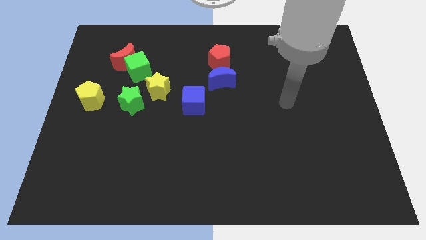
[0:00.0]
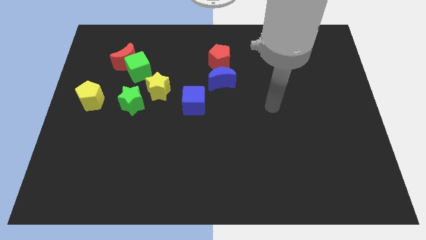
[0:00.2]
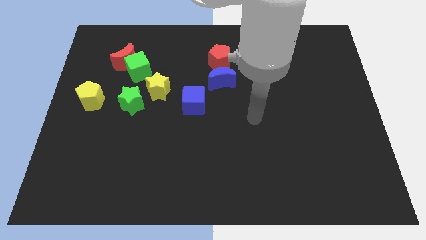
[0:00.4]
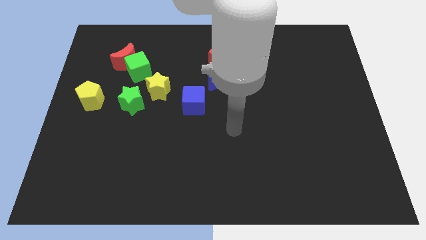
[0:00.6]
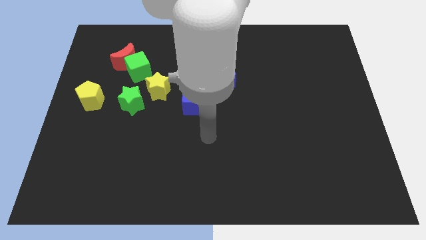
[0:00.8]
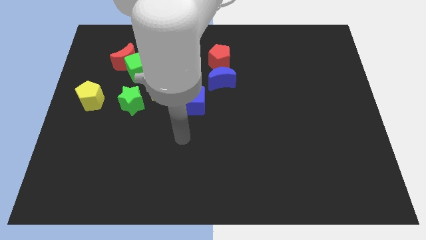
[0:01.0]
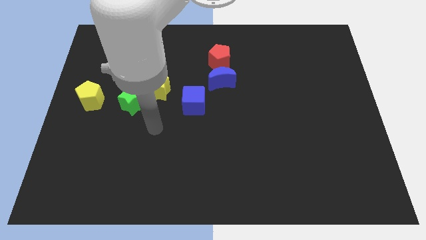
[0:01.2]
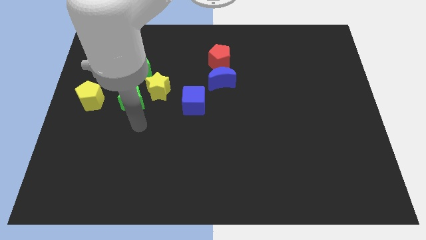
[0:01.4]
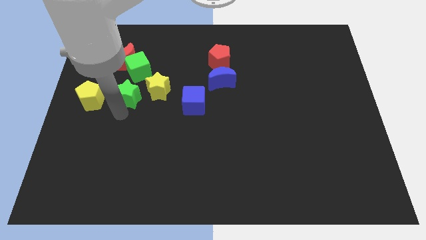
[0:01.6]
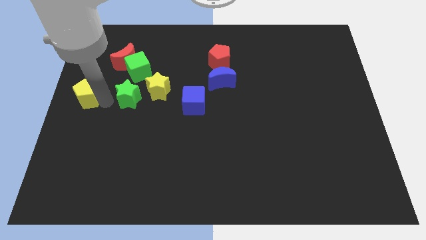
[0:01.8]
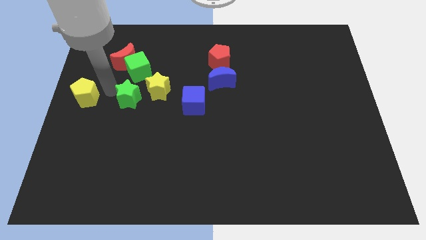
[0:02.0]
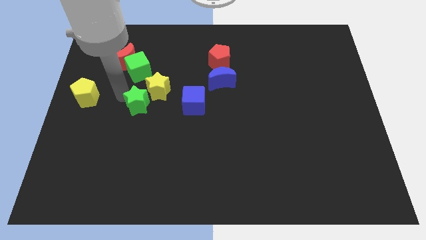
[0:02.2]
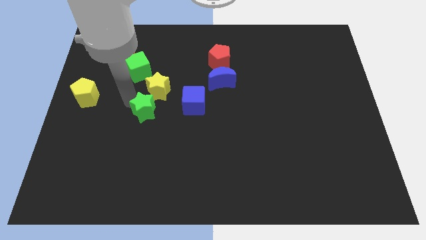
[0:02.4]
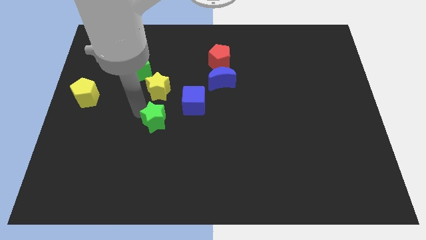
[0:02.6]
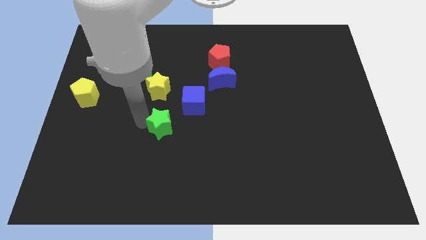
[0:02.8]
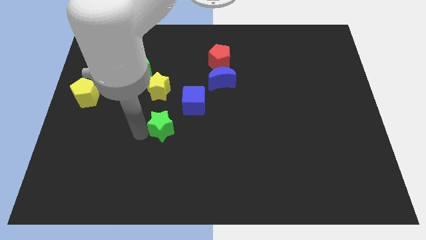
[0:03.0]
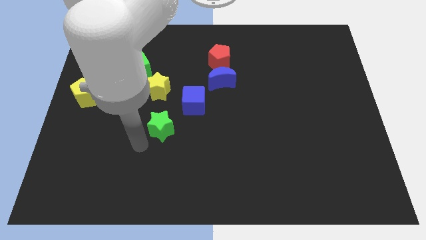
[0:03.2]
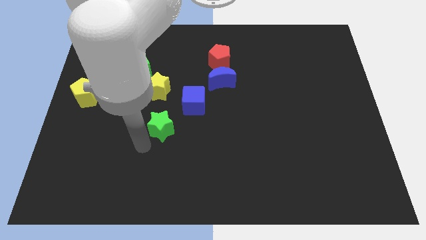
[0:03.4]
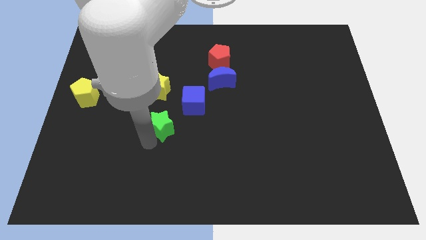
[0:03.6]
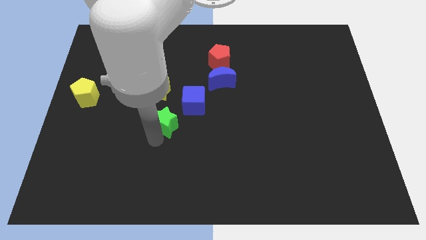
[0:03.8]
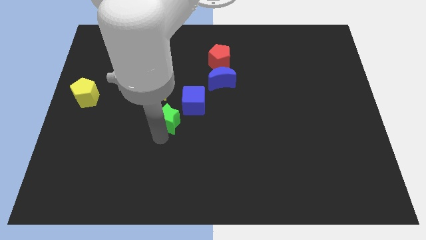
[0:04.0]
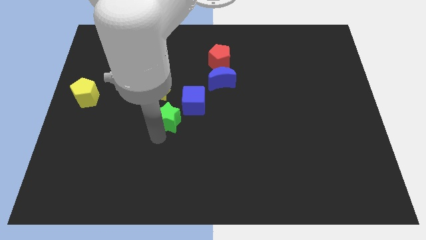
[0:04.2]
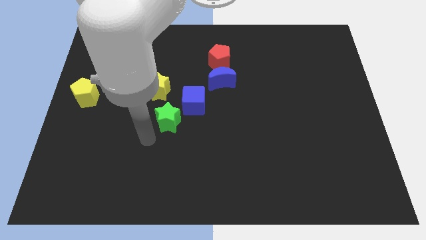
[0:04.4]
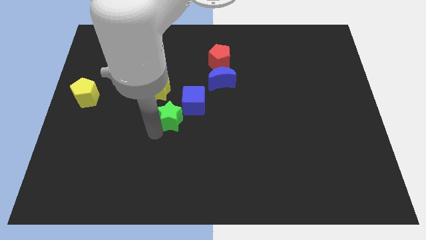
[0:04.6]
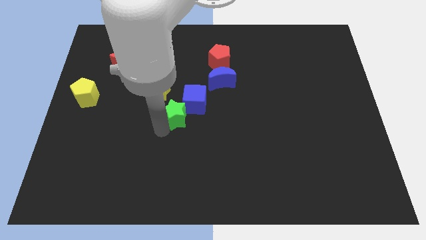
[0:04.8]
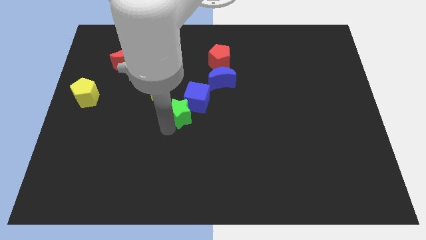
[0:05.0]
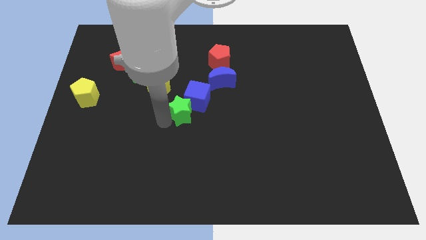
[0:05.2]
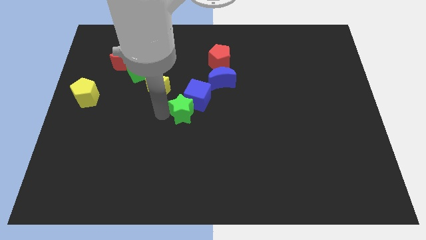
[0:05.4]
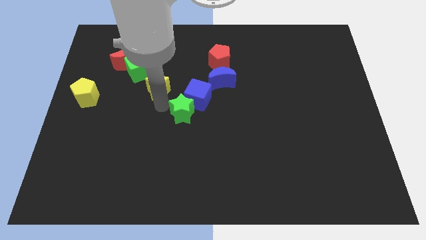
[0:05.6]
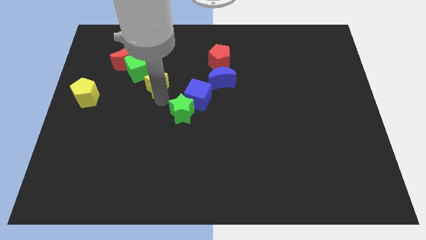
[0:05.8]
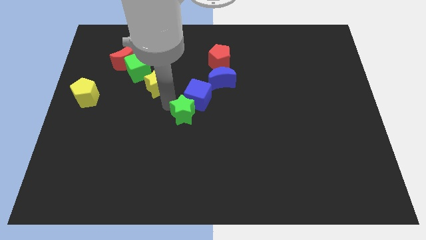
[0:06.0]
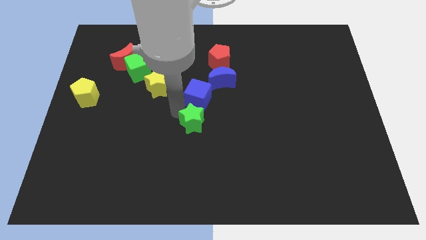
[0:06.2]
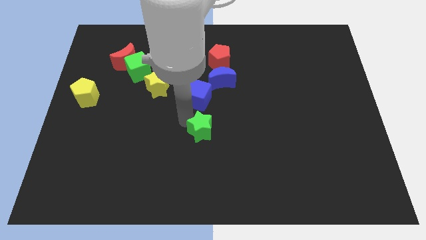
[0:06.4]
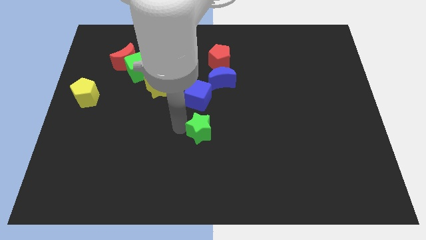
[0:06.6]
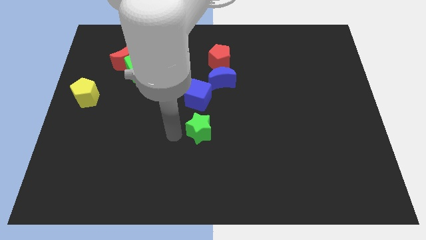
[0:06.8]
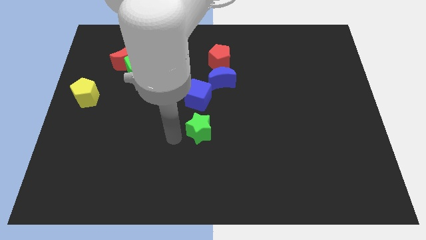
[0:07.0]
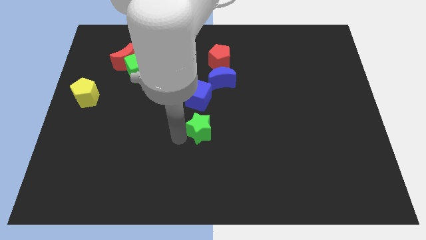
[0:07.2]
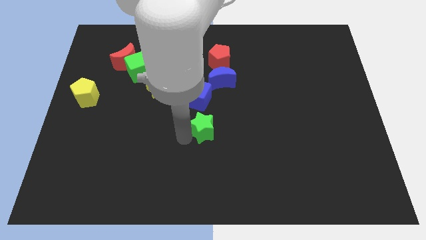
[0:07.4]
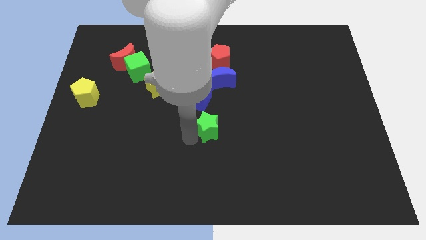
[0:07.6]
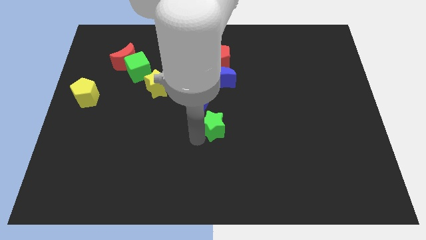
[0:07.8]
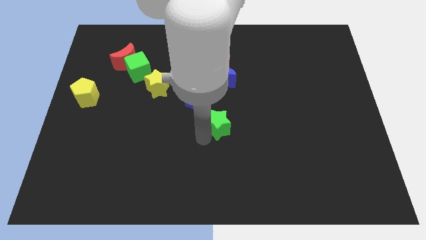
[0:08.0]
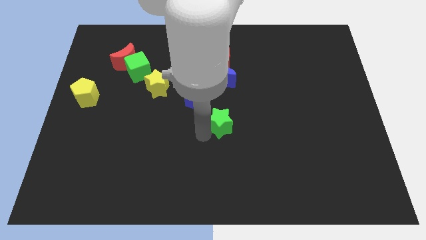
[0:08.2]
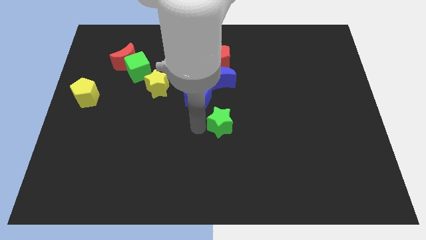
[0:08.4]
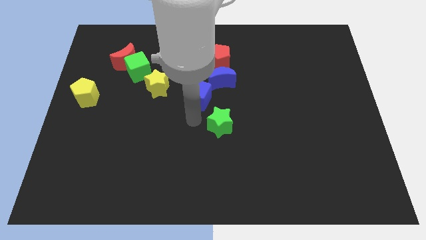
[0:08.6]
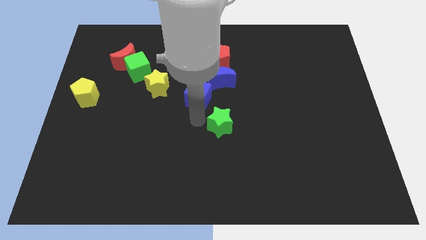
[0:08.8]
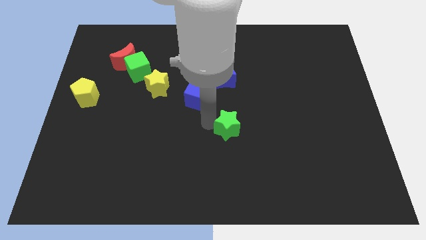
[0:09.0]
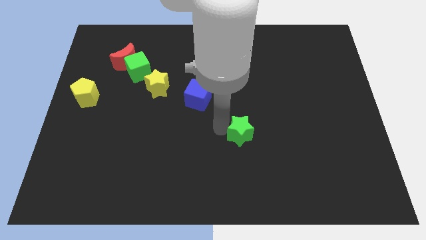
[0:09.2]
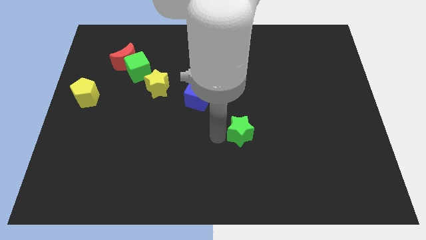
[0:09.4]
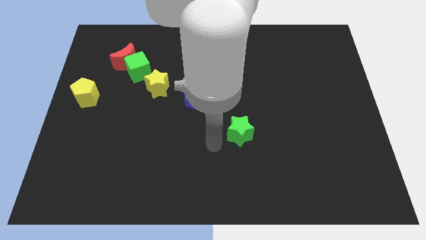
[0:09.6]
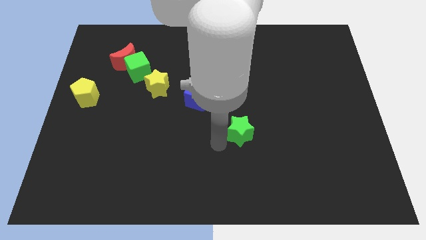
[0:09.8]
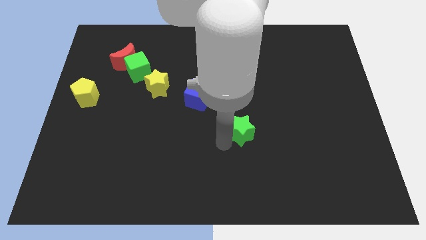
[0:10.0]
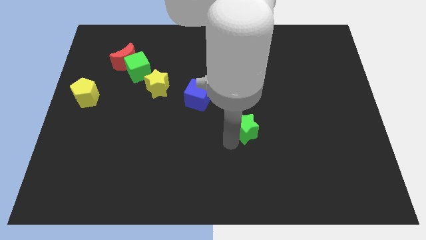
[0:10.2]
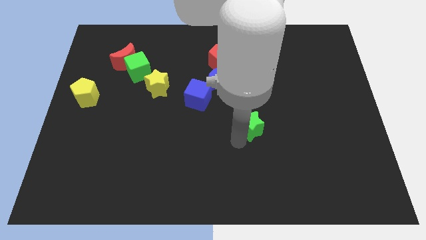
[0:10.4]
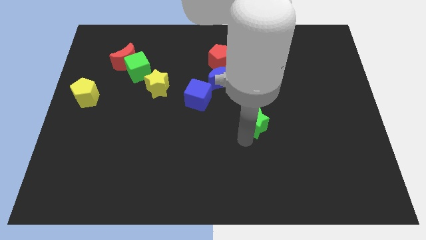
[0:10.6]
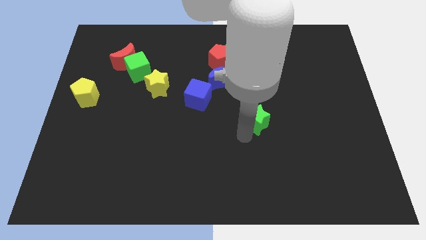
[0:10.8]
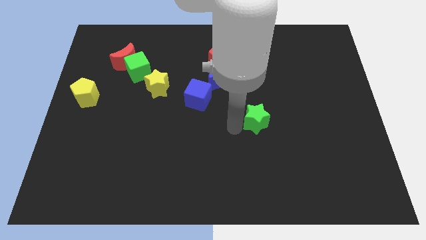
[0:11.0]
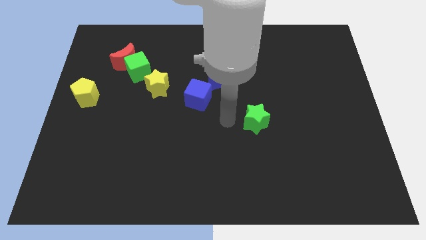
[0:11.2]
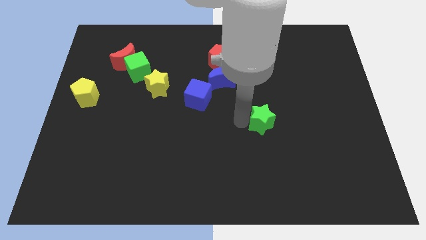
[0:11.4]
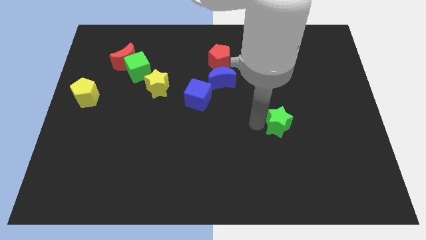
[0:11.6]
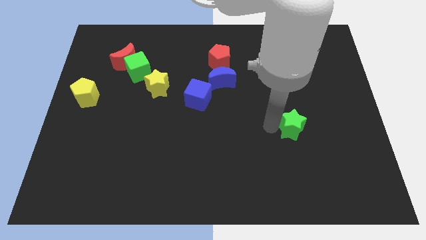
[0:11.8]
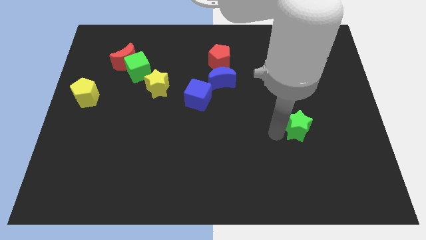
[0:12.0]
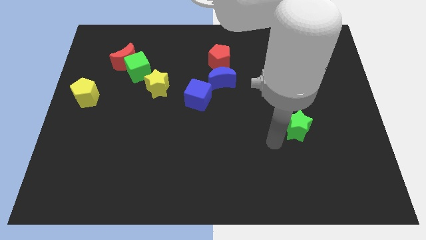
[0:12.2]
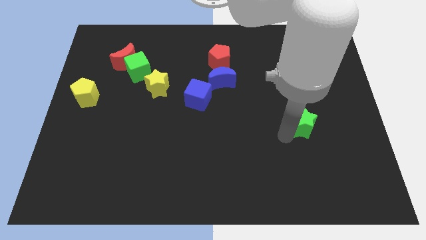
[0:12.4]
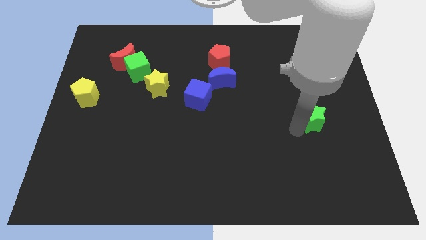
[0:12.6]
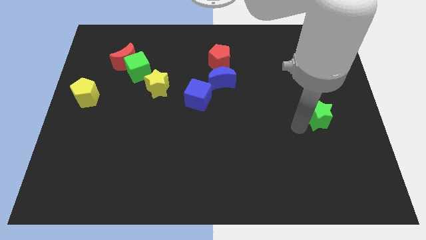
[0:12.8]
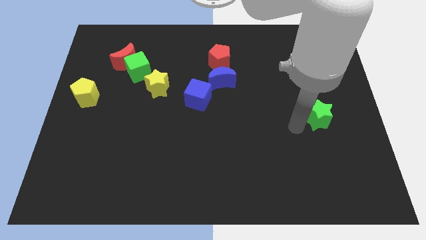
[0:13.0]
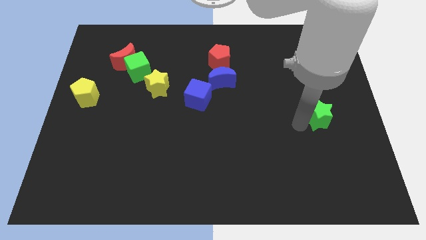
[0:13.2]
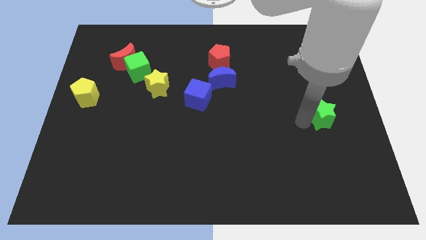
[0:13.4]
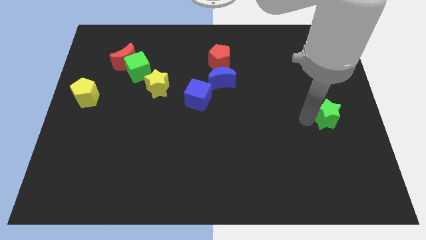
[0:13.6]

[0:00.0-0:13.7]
put the green star to the center right
